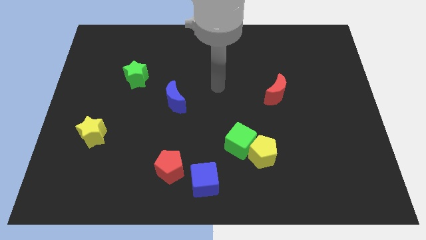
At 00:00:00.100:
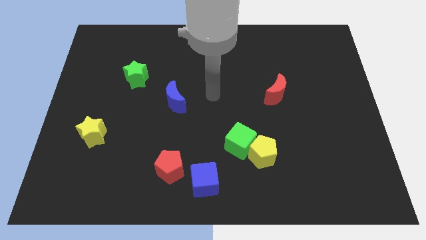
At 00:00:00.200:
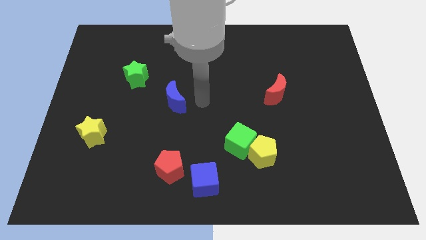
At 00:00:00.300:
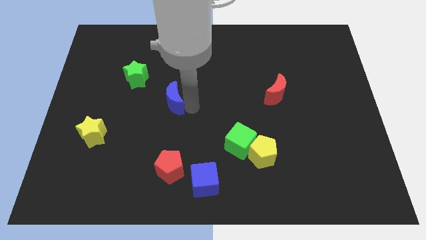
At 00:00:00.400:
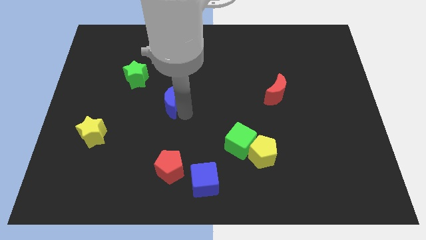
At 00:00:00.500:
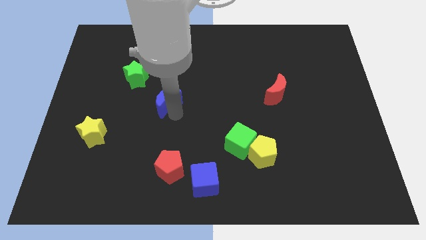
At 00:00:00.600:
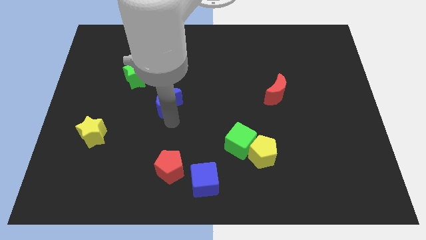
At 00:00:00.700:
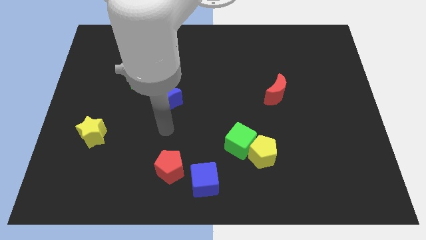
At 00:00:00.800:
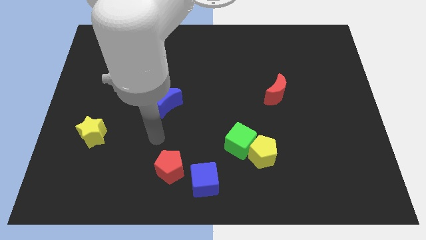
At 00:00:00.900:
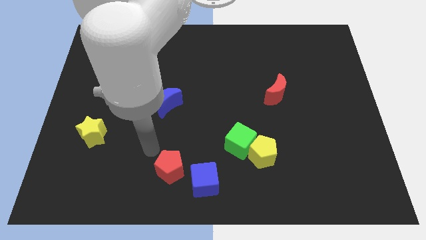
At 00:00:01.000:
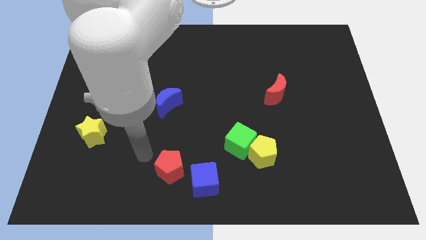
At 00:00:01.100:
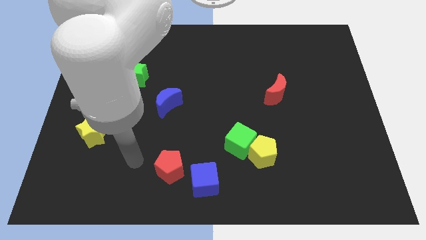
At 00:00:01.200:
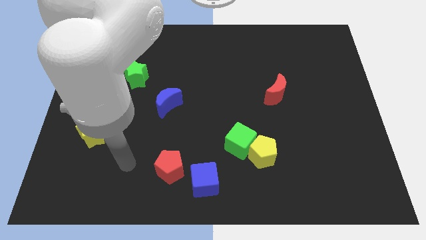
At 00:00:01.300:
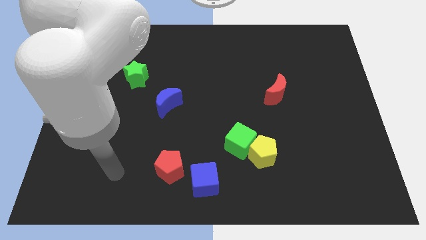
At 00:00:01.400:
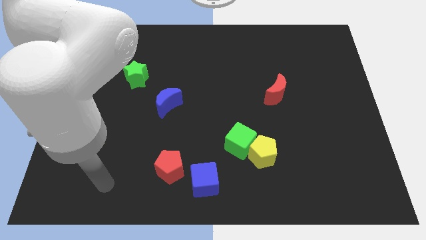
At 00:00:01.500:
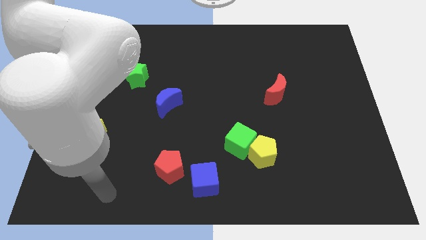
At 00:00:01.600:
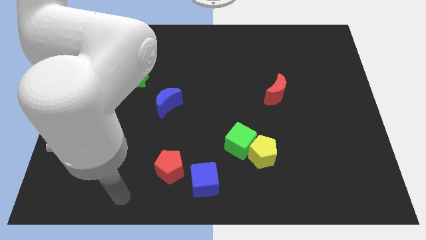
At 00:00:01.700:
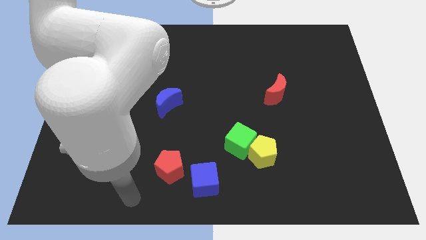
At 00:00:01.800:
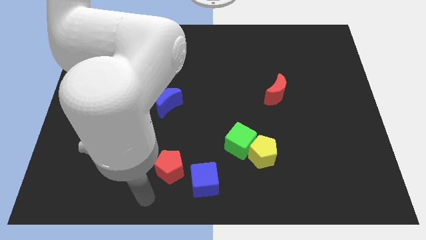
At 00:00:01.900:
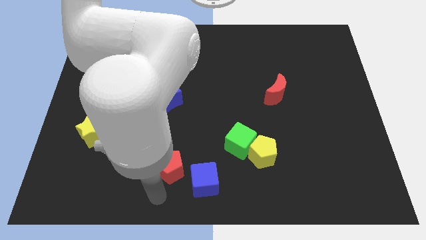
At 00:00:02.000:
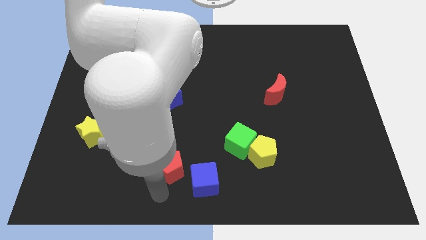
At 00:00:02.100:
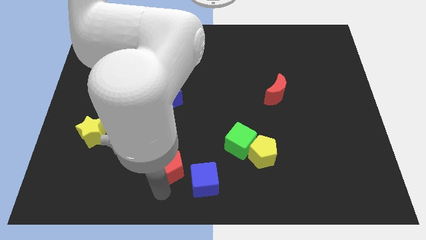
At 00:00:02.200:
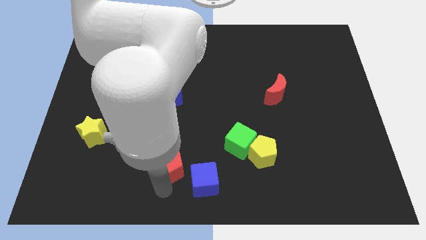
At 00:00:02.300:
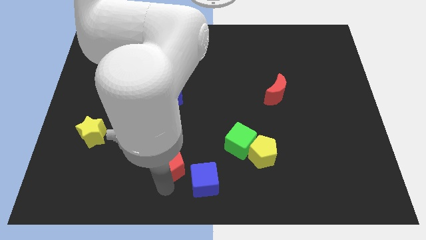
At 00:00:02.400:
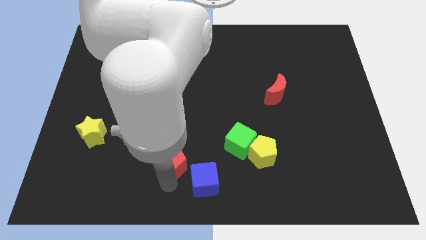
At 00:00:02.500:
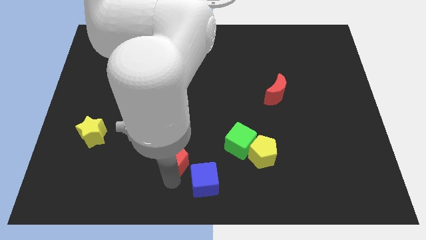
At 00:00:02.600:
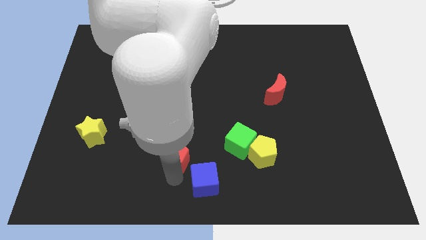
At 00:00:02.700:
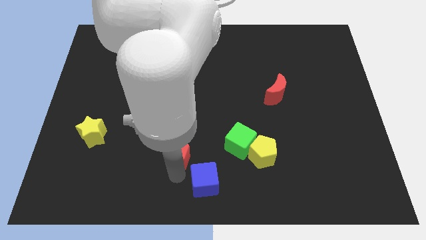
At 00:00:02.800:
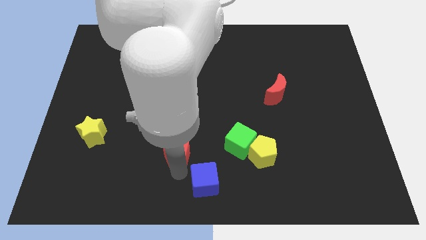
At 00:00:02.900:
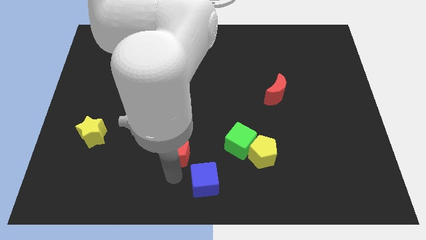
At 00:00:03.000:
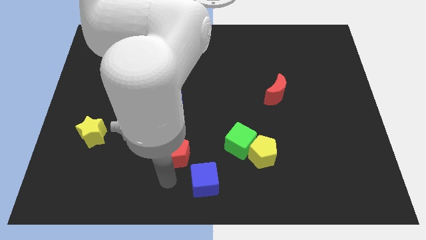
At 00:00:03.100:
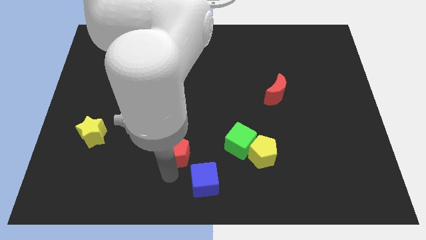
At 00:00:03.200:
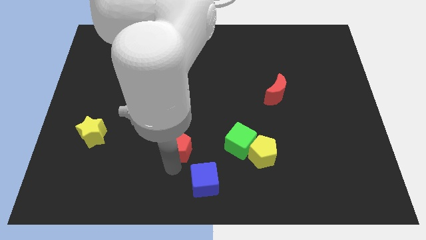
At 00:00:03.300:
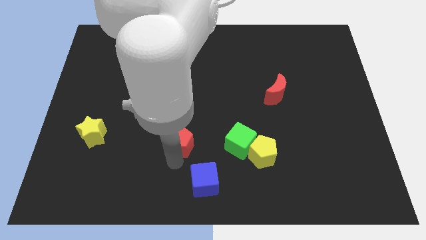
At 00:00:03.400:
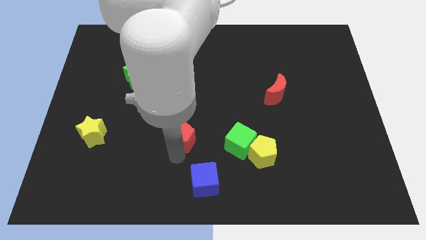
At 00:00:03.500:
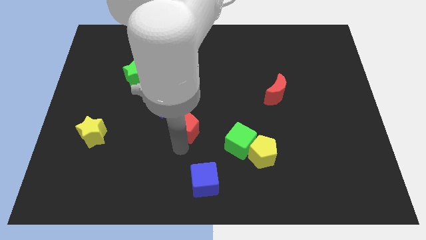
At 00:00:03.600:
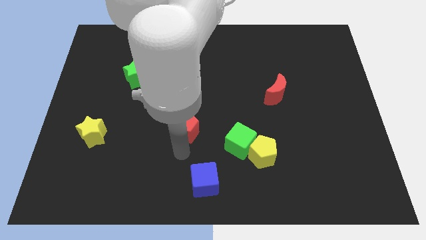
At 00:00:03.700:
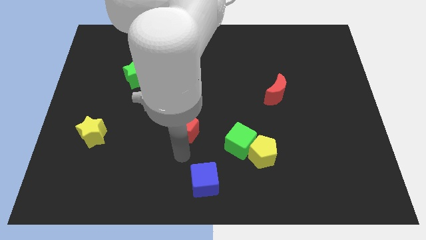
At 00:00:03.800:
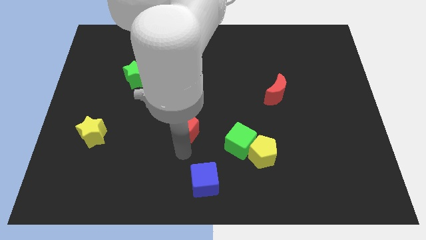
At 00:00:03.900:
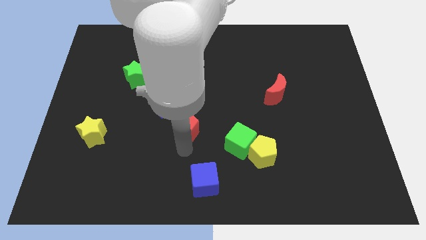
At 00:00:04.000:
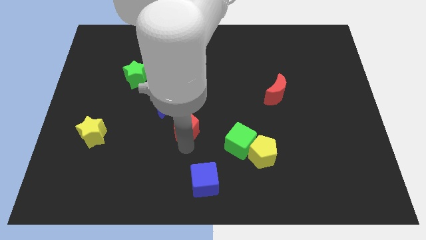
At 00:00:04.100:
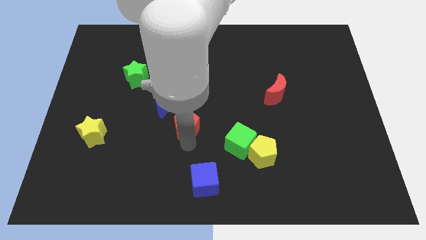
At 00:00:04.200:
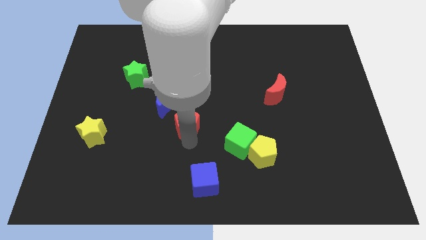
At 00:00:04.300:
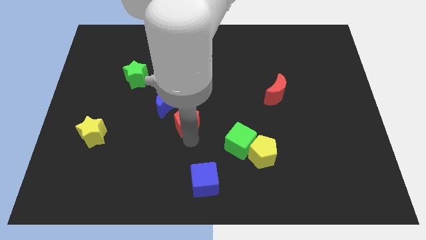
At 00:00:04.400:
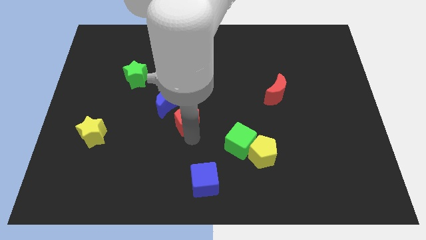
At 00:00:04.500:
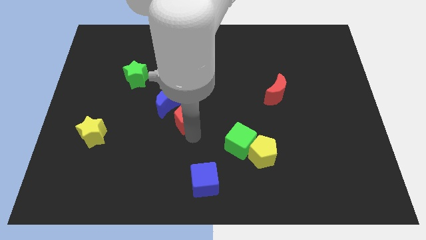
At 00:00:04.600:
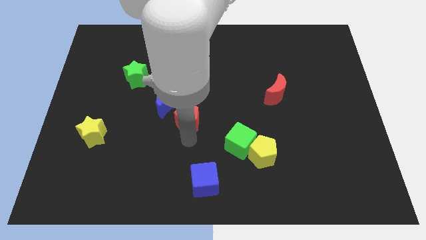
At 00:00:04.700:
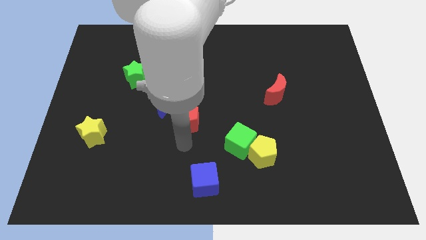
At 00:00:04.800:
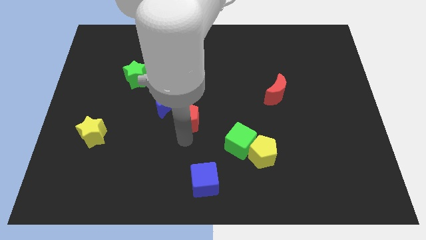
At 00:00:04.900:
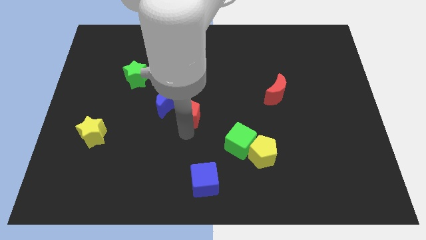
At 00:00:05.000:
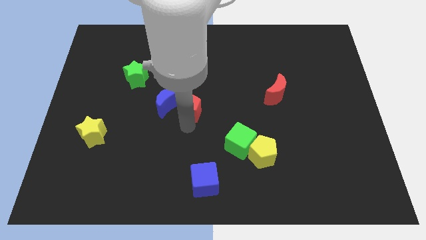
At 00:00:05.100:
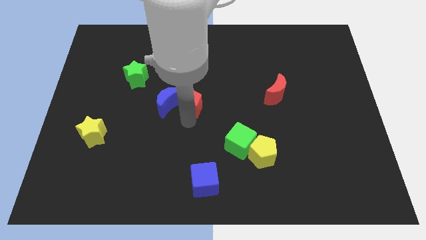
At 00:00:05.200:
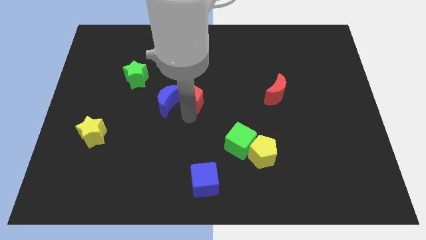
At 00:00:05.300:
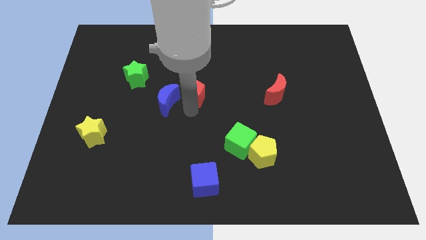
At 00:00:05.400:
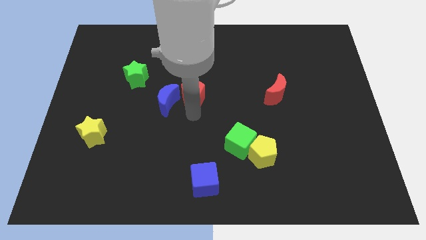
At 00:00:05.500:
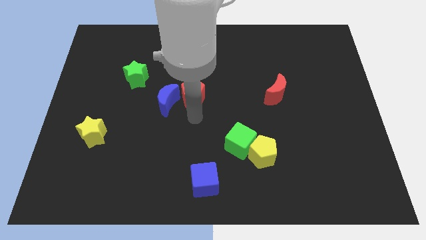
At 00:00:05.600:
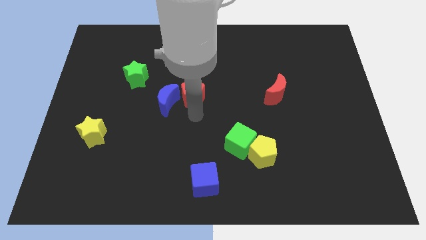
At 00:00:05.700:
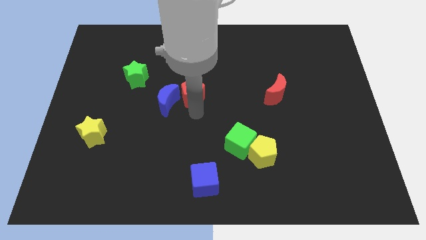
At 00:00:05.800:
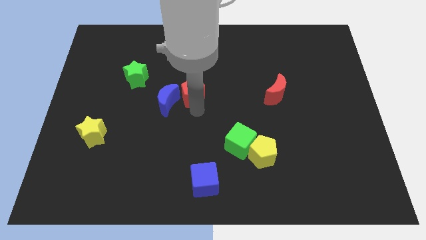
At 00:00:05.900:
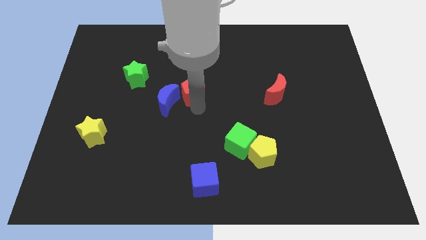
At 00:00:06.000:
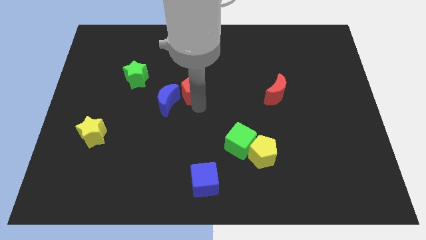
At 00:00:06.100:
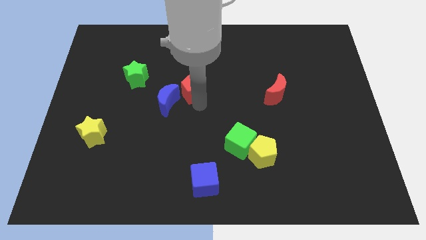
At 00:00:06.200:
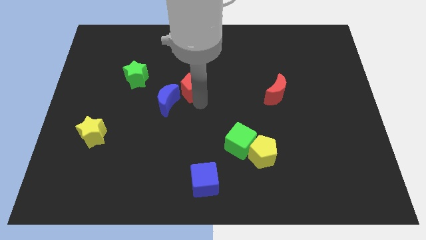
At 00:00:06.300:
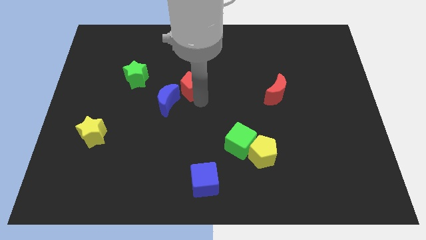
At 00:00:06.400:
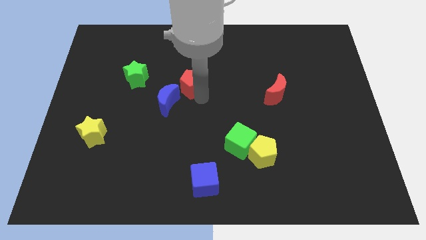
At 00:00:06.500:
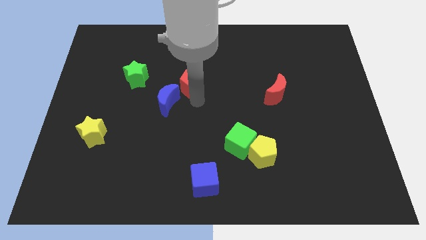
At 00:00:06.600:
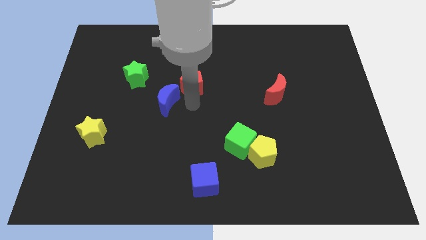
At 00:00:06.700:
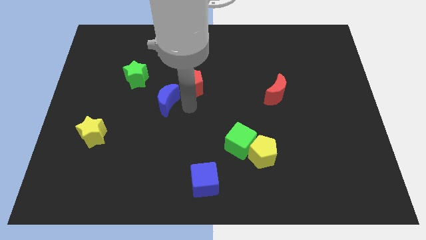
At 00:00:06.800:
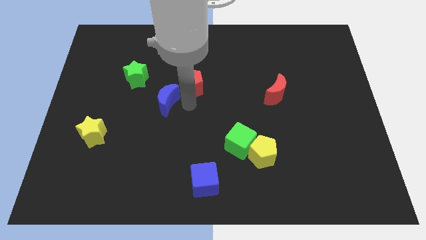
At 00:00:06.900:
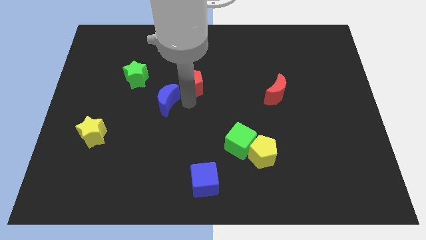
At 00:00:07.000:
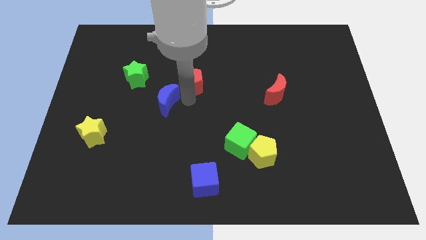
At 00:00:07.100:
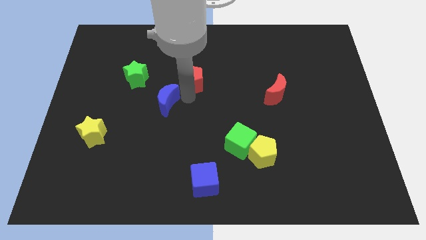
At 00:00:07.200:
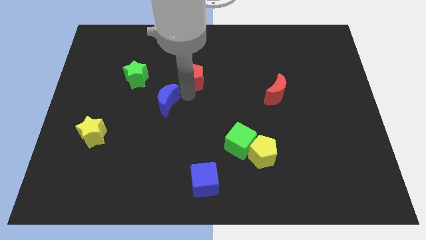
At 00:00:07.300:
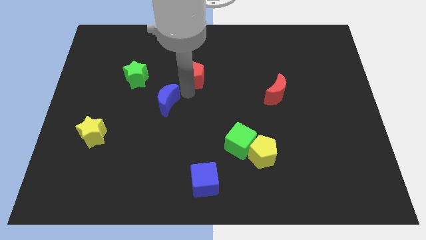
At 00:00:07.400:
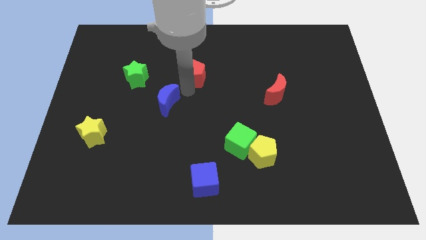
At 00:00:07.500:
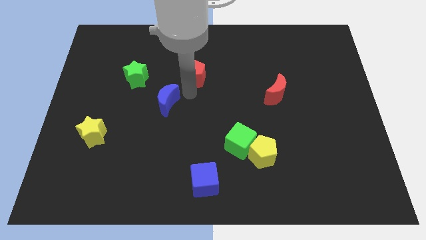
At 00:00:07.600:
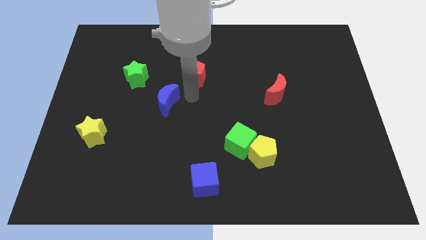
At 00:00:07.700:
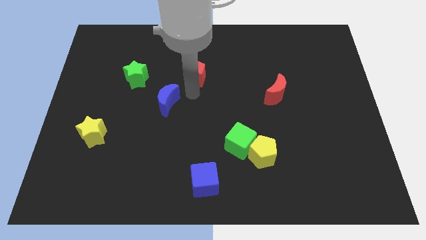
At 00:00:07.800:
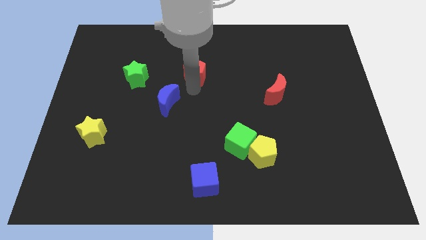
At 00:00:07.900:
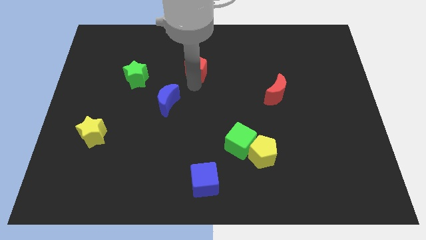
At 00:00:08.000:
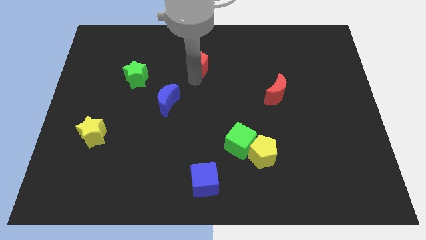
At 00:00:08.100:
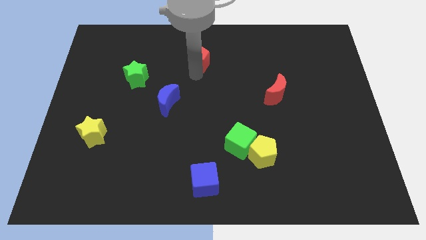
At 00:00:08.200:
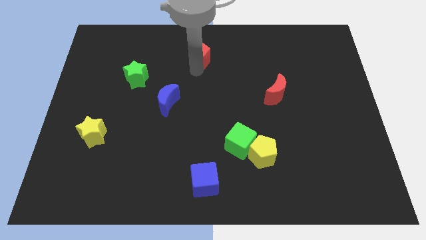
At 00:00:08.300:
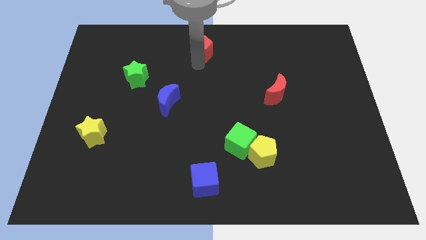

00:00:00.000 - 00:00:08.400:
push the red pentagon to the towards your base
